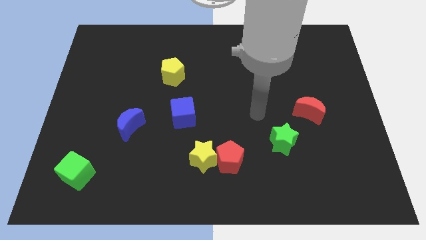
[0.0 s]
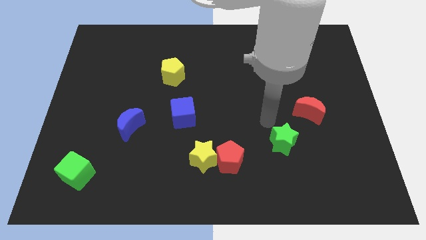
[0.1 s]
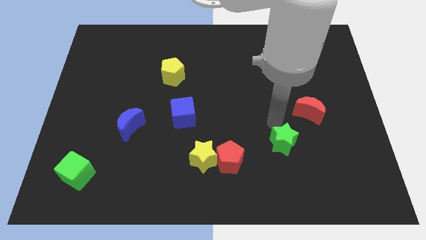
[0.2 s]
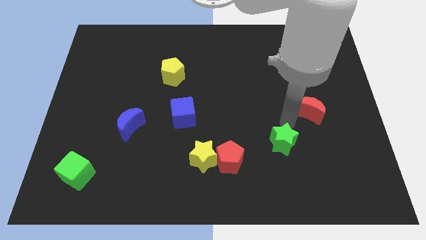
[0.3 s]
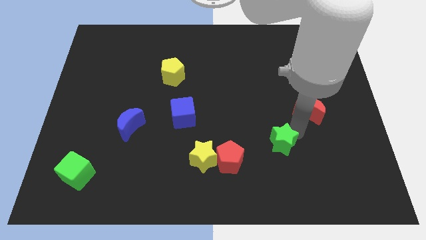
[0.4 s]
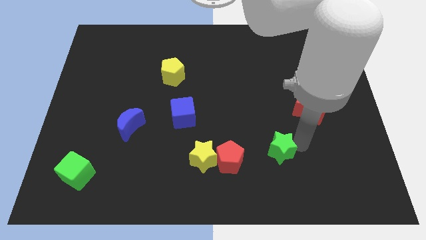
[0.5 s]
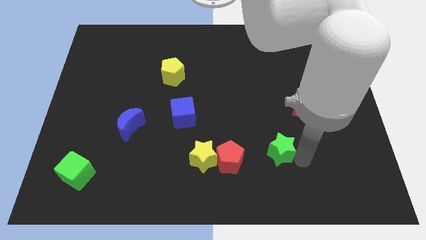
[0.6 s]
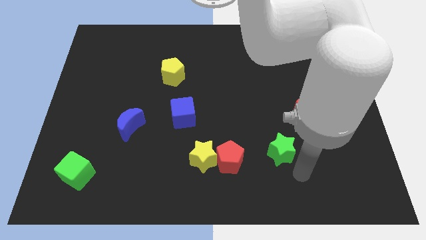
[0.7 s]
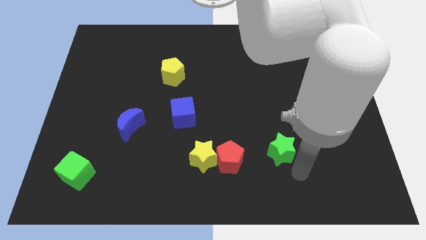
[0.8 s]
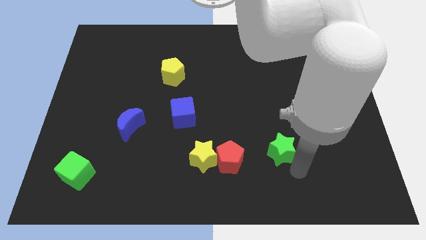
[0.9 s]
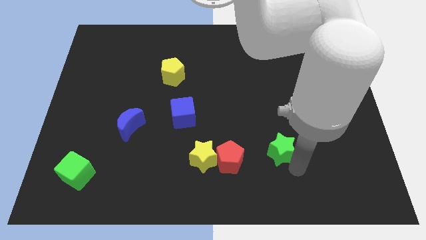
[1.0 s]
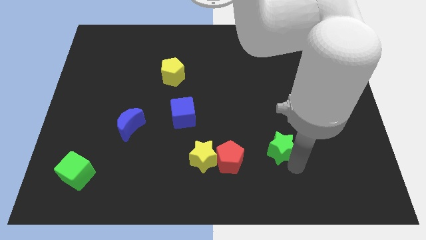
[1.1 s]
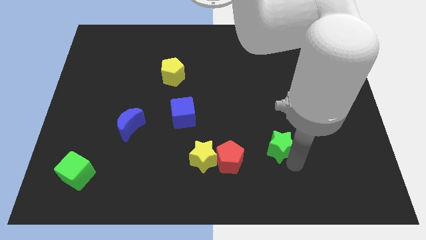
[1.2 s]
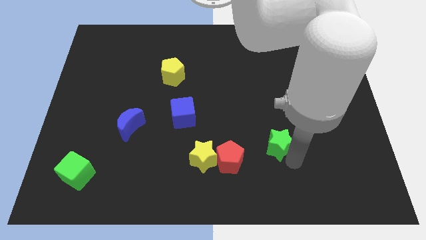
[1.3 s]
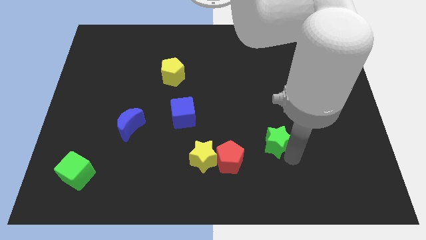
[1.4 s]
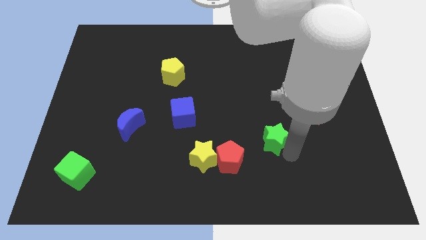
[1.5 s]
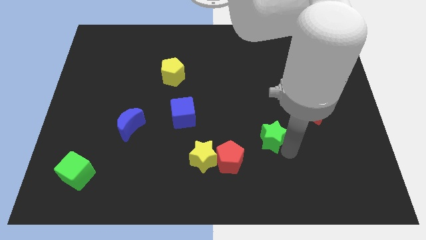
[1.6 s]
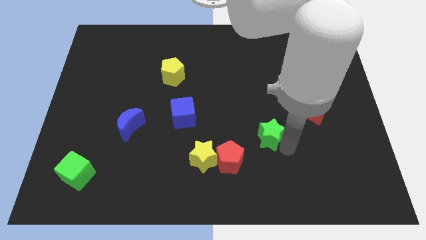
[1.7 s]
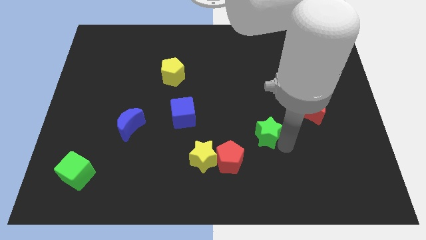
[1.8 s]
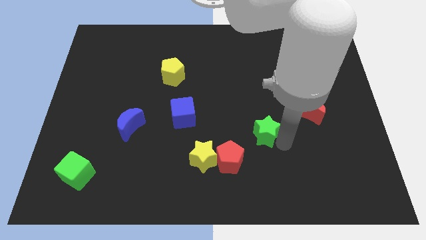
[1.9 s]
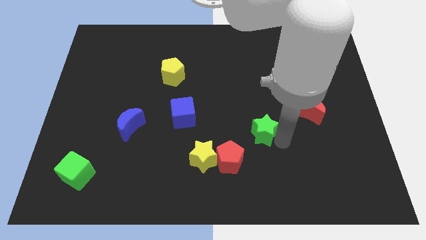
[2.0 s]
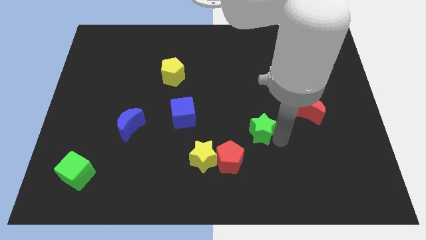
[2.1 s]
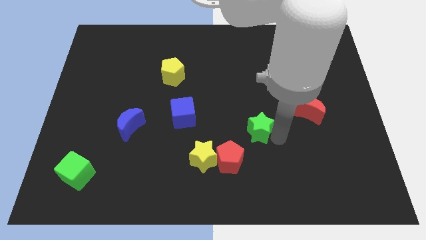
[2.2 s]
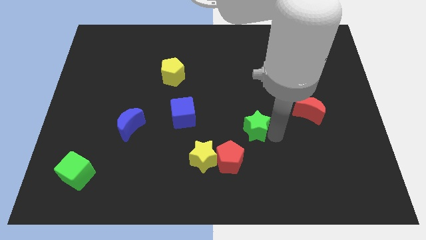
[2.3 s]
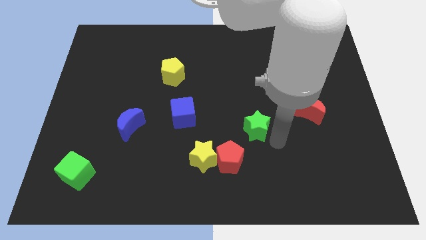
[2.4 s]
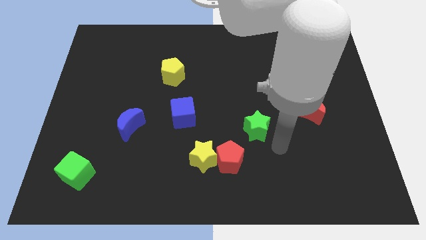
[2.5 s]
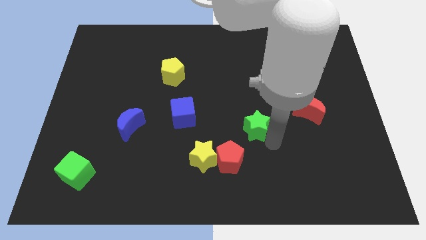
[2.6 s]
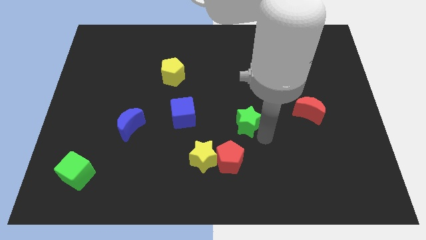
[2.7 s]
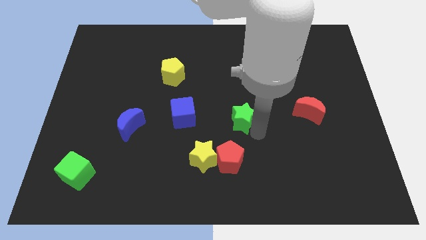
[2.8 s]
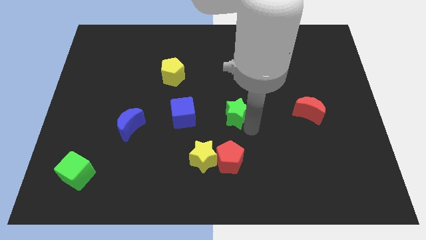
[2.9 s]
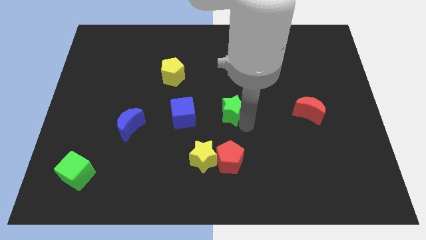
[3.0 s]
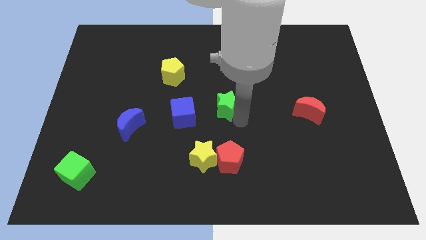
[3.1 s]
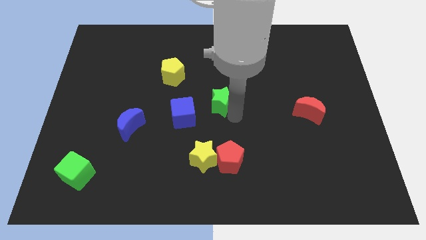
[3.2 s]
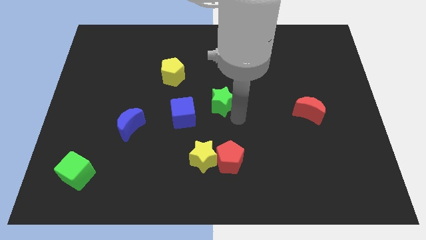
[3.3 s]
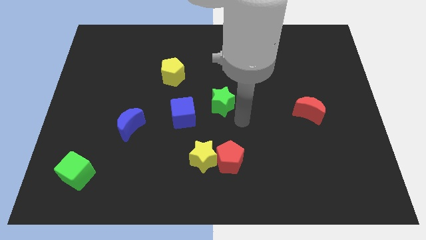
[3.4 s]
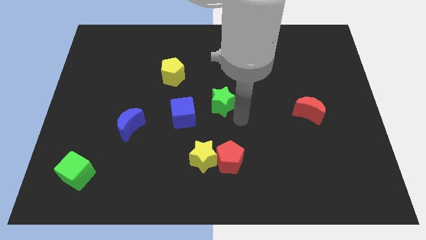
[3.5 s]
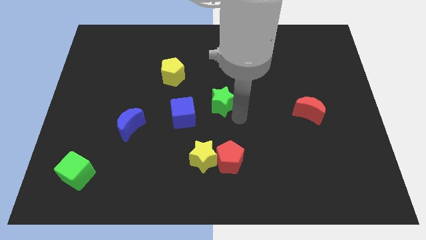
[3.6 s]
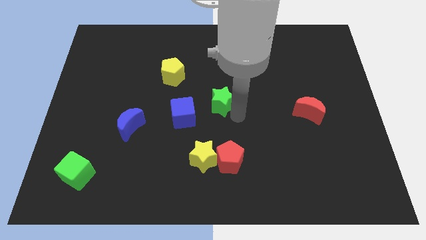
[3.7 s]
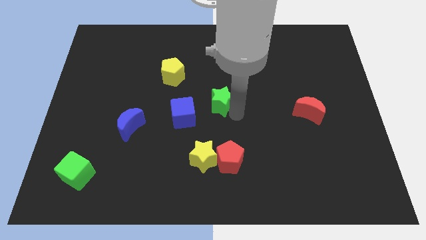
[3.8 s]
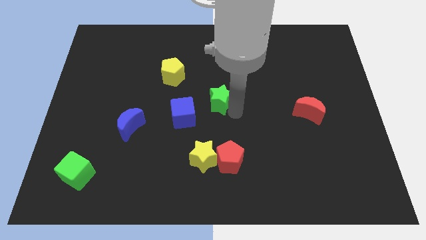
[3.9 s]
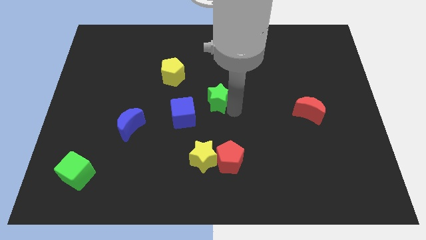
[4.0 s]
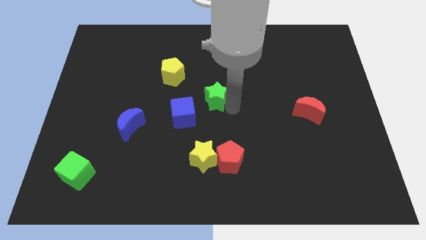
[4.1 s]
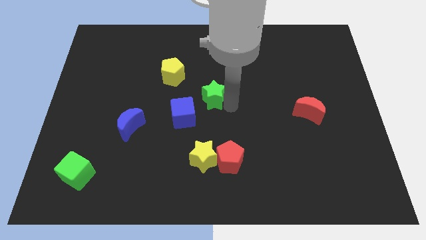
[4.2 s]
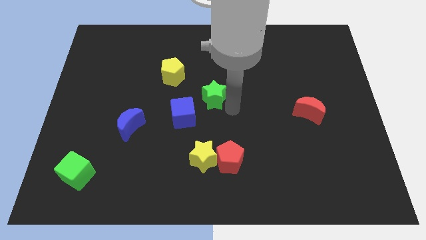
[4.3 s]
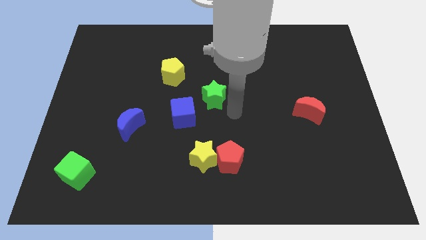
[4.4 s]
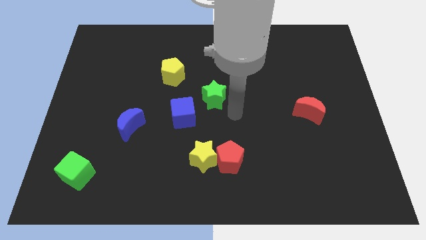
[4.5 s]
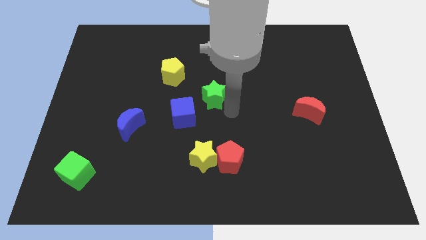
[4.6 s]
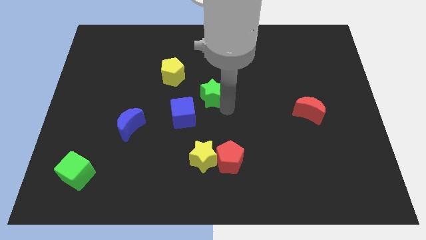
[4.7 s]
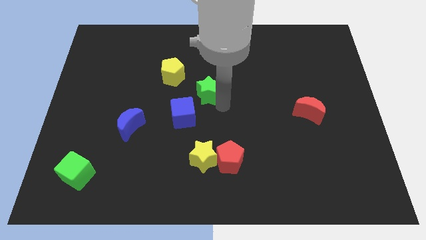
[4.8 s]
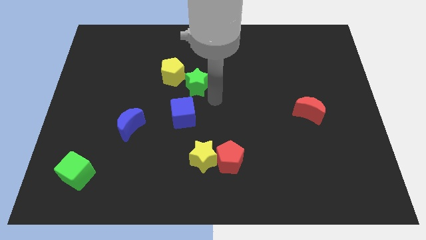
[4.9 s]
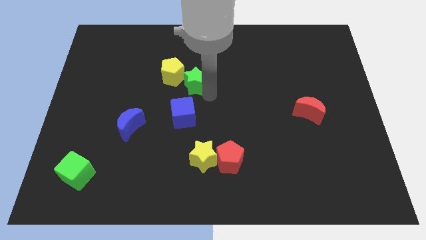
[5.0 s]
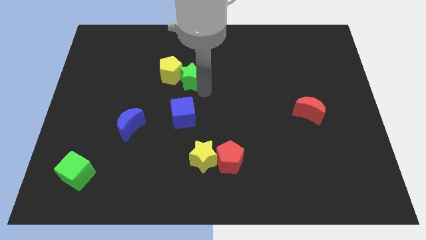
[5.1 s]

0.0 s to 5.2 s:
slide the green star close to the yellow pentagon
